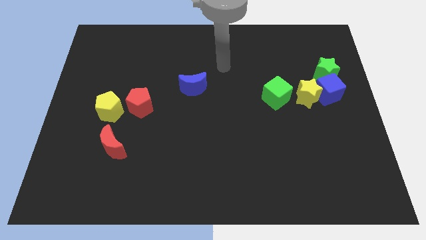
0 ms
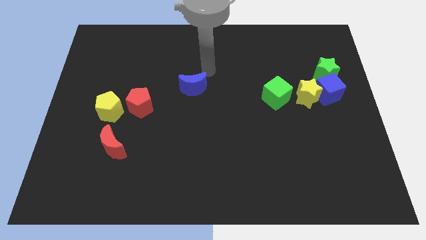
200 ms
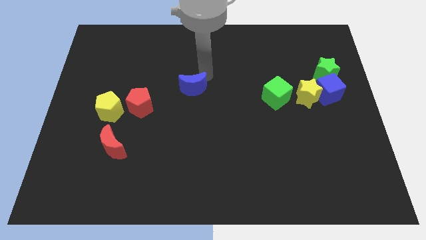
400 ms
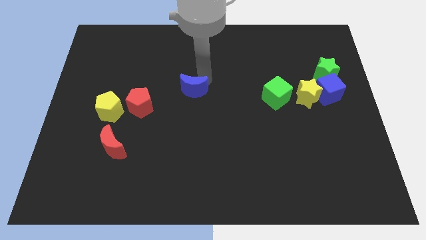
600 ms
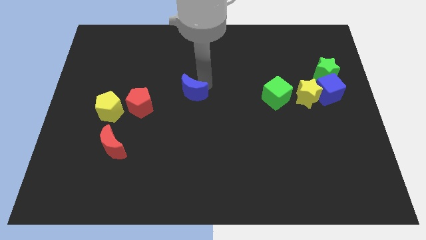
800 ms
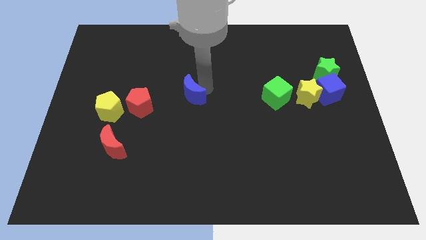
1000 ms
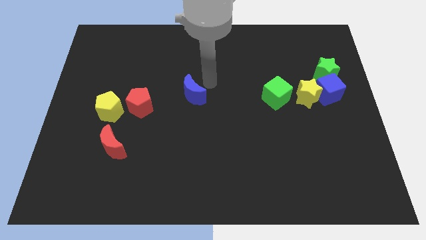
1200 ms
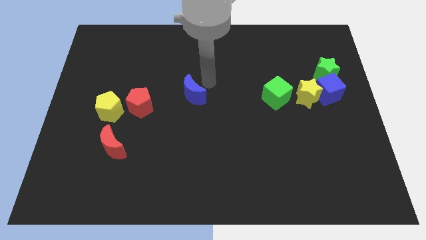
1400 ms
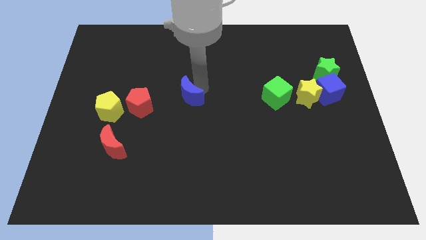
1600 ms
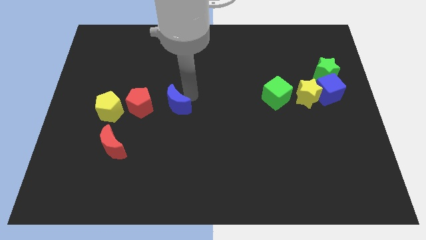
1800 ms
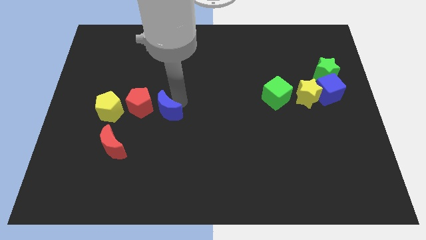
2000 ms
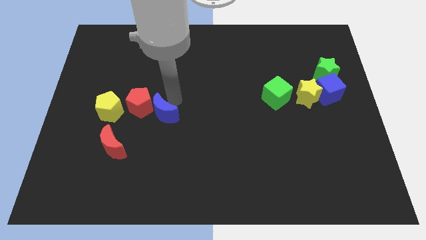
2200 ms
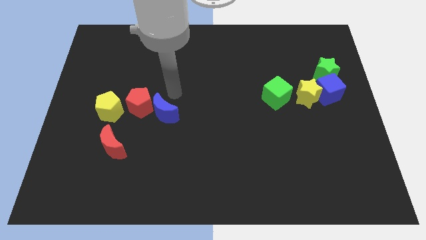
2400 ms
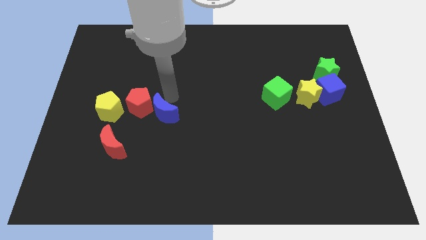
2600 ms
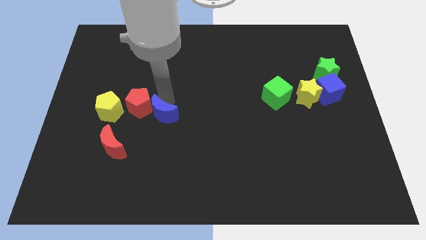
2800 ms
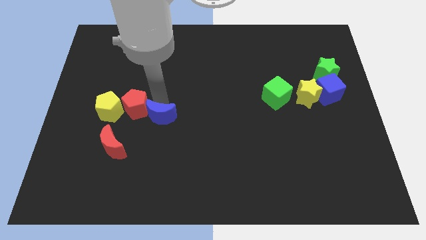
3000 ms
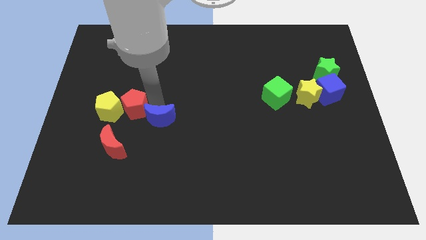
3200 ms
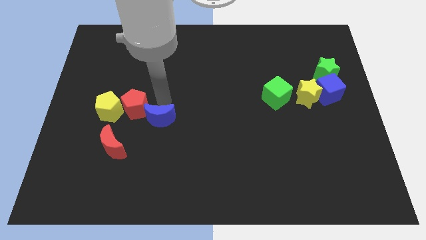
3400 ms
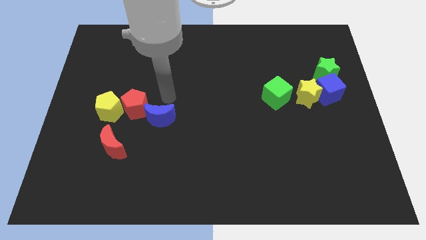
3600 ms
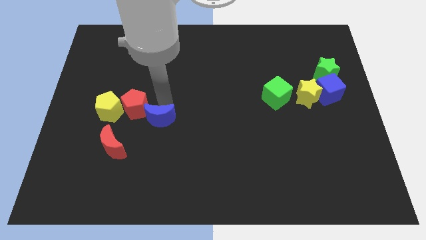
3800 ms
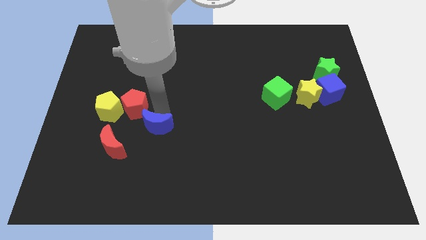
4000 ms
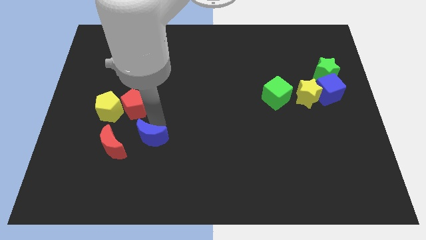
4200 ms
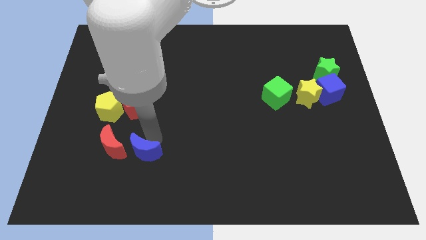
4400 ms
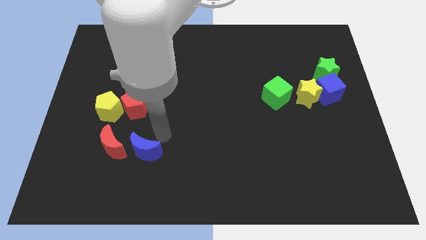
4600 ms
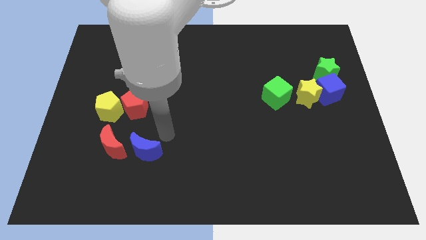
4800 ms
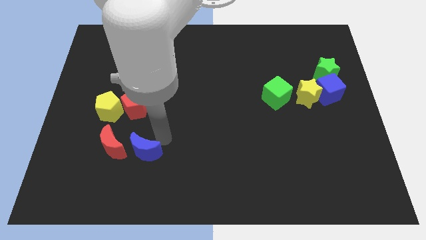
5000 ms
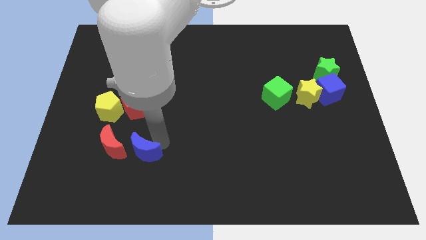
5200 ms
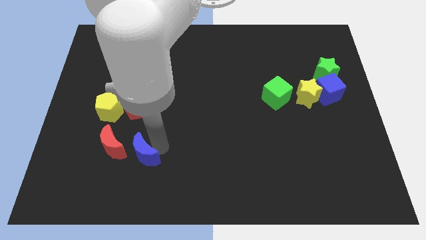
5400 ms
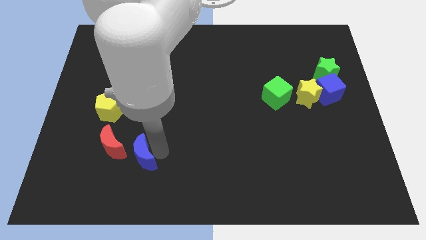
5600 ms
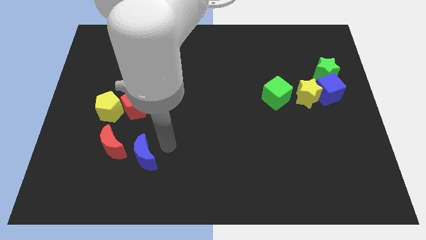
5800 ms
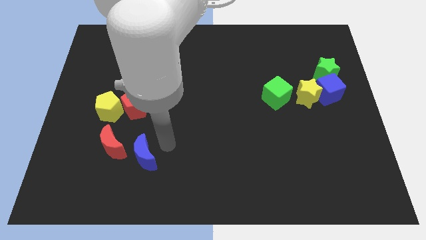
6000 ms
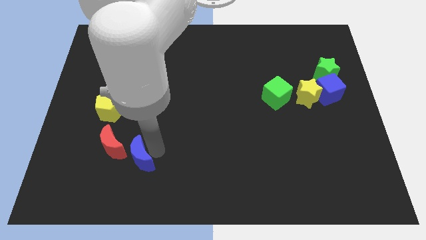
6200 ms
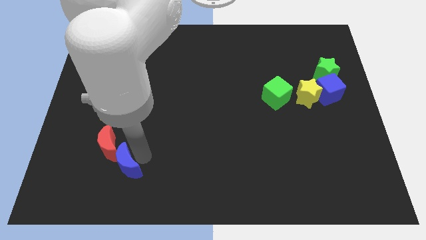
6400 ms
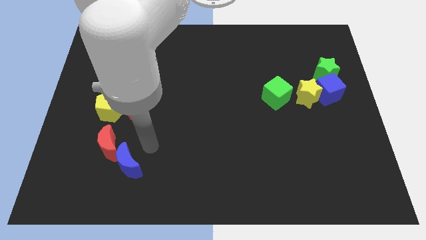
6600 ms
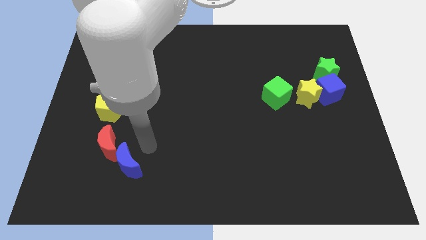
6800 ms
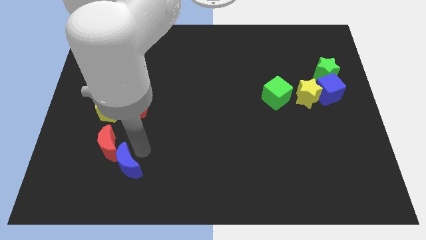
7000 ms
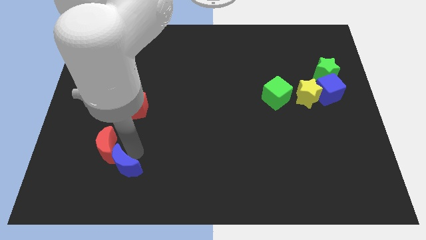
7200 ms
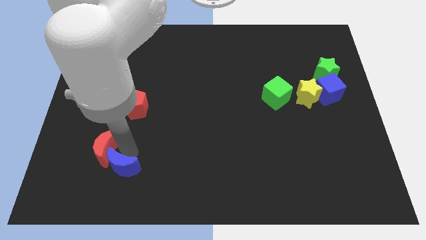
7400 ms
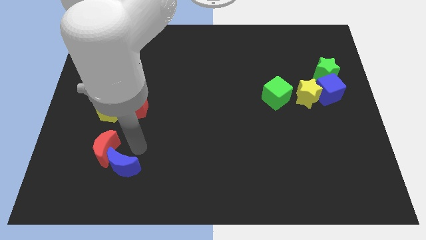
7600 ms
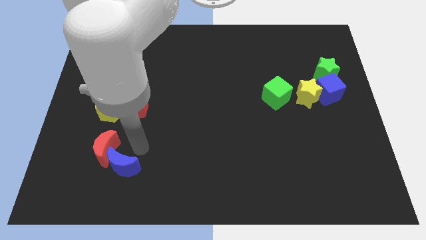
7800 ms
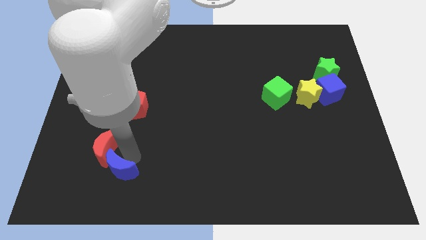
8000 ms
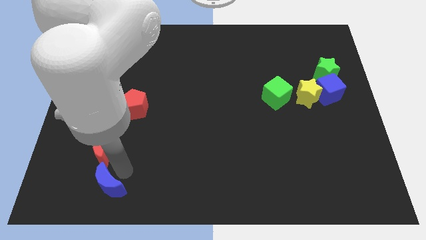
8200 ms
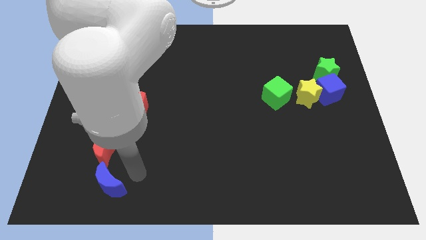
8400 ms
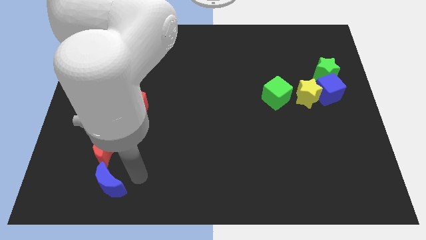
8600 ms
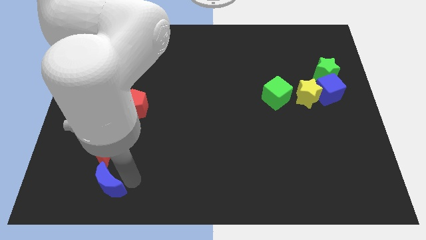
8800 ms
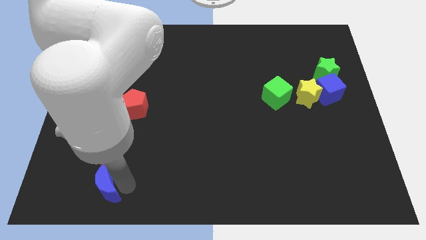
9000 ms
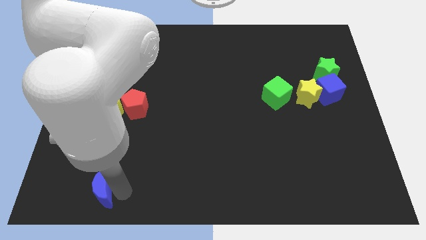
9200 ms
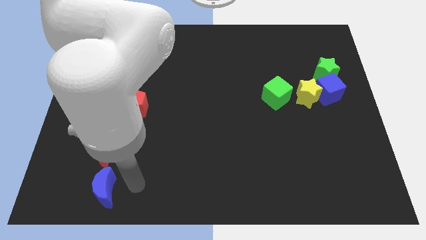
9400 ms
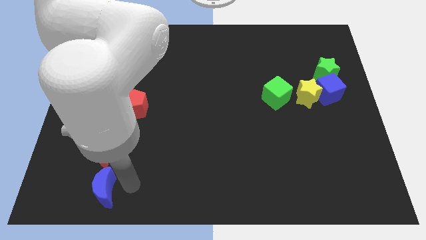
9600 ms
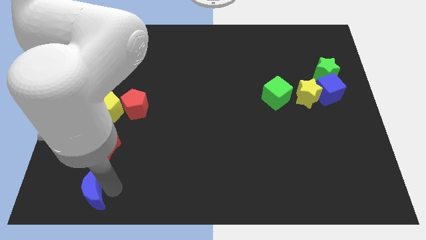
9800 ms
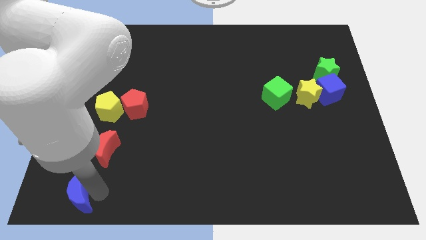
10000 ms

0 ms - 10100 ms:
push the blue moon to the bottom left corner

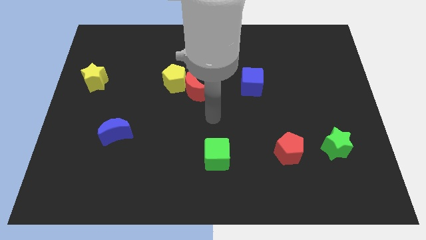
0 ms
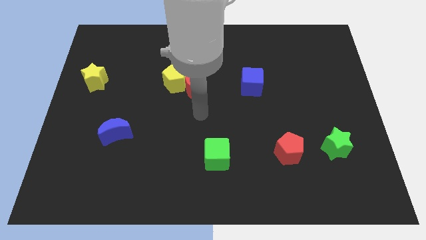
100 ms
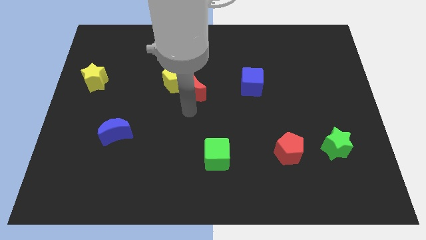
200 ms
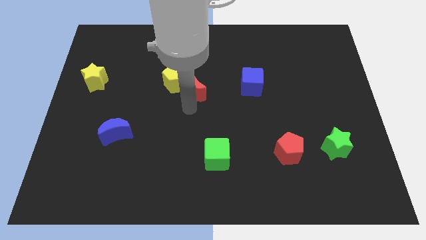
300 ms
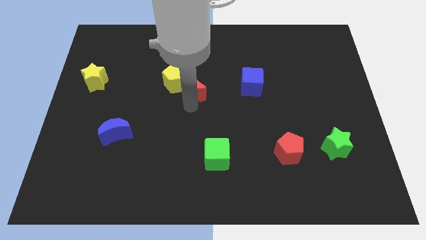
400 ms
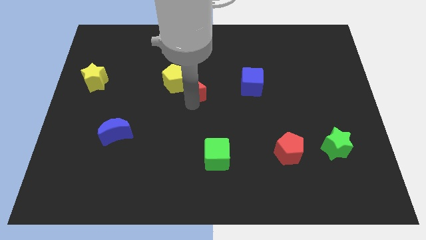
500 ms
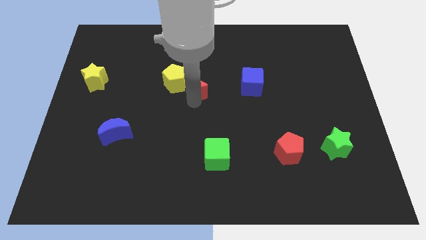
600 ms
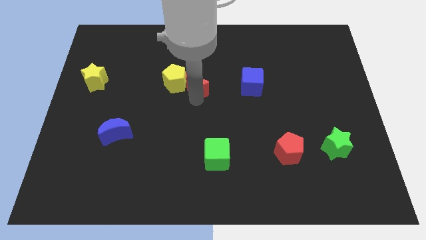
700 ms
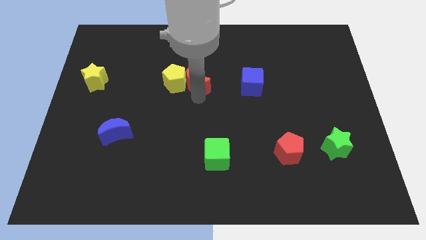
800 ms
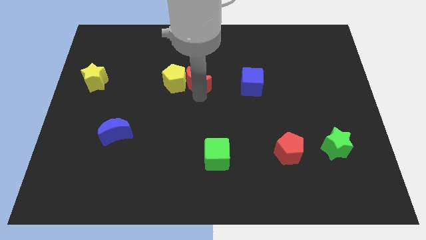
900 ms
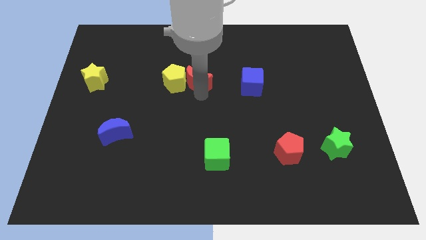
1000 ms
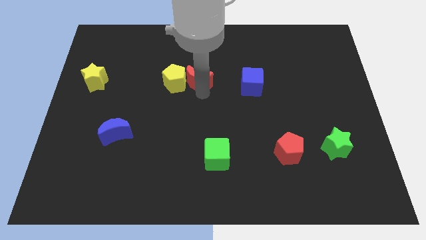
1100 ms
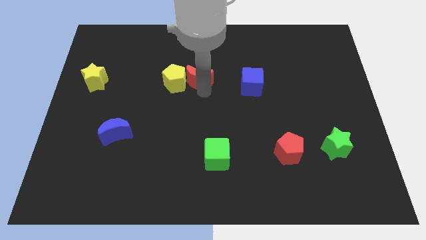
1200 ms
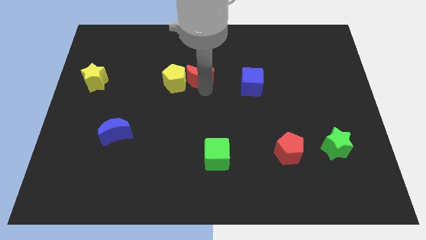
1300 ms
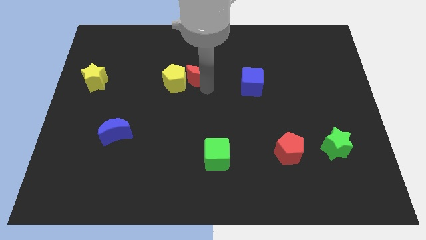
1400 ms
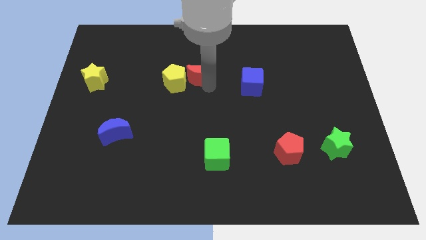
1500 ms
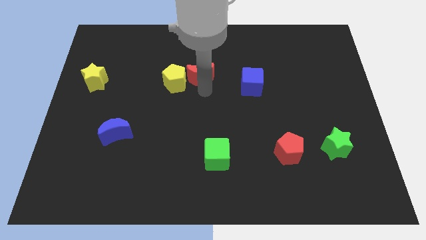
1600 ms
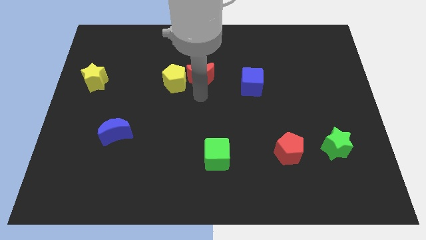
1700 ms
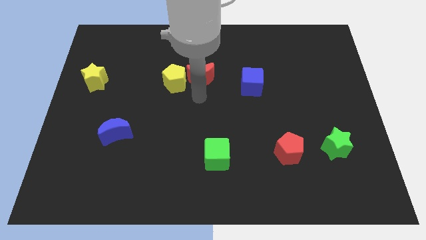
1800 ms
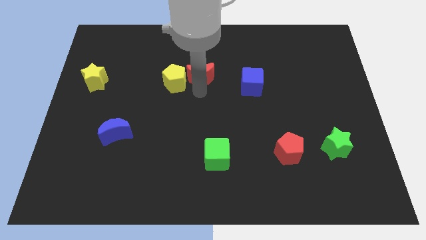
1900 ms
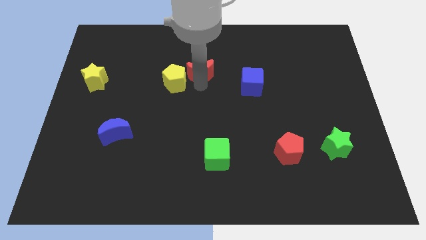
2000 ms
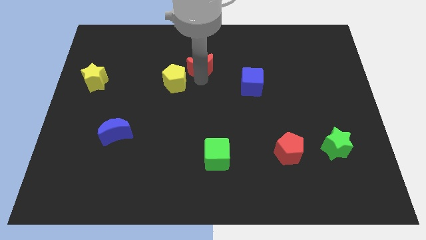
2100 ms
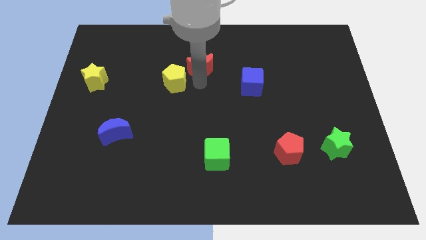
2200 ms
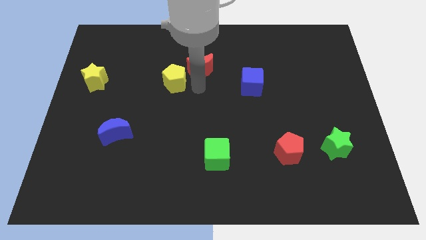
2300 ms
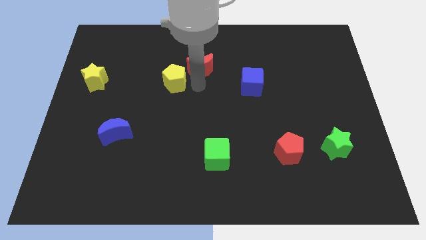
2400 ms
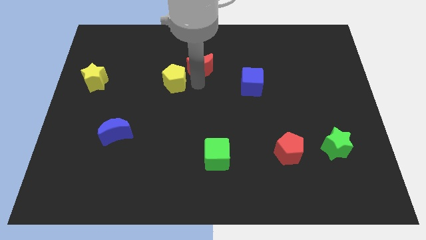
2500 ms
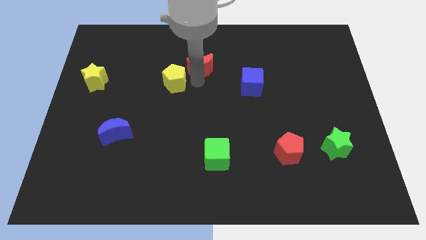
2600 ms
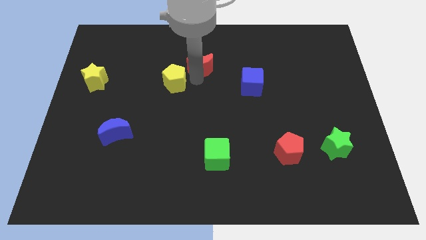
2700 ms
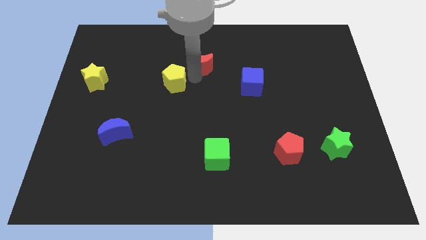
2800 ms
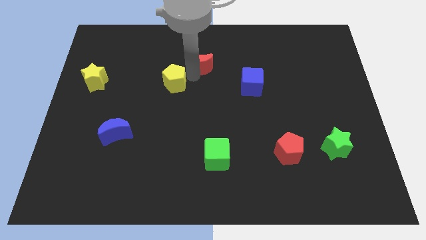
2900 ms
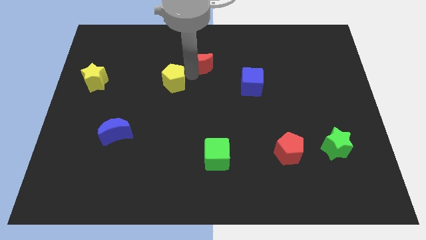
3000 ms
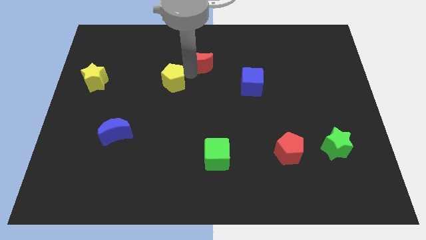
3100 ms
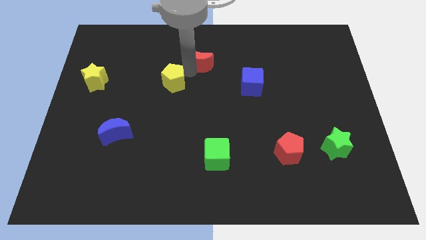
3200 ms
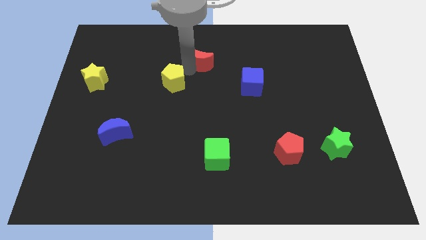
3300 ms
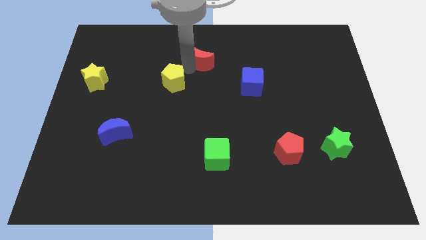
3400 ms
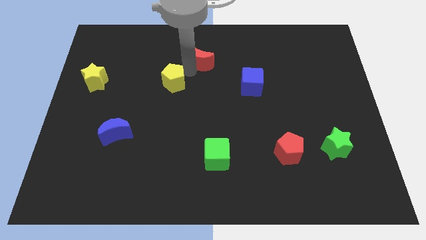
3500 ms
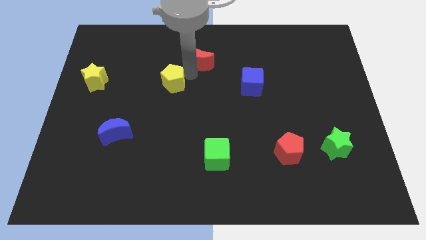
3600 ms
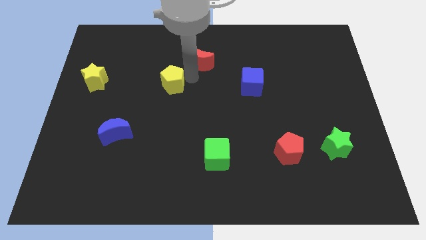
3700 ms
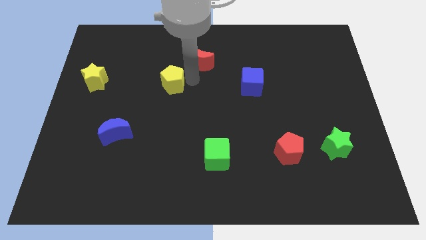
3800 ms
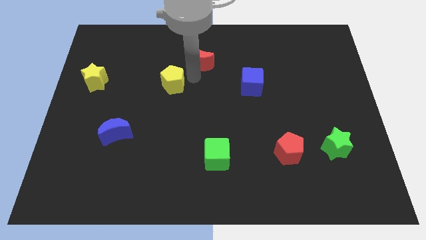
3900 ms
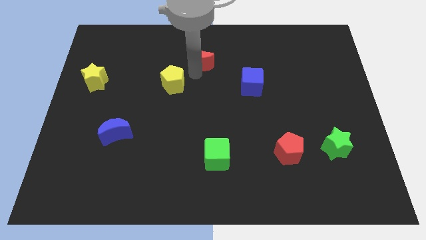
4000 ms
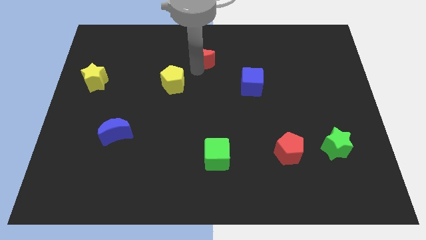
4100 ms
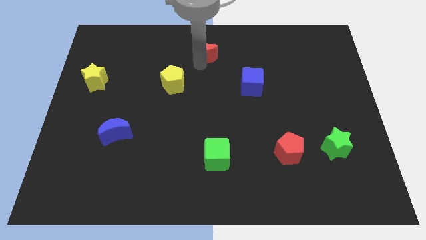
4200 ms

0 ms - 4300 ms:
slide the red moon to the top
